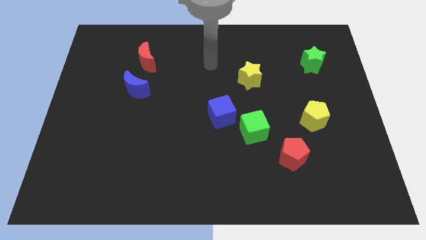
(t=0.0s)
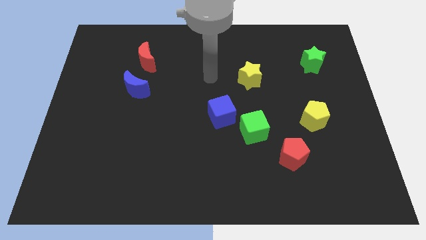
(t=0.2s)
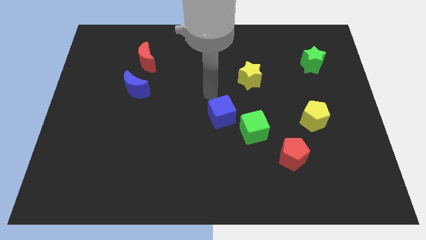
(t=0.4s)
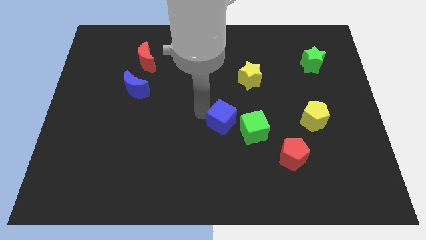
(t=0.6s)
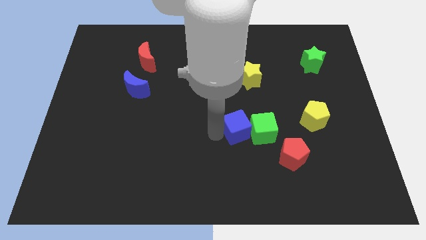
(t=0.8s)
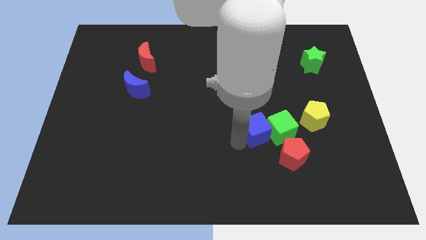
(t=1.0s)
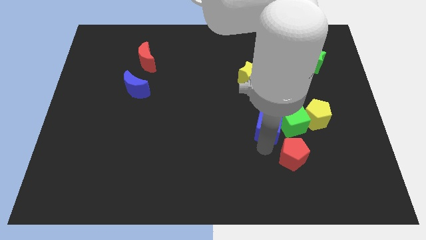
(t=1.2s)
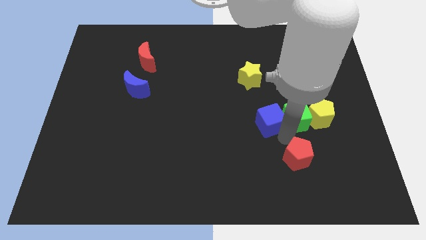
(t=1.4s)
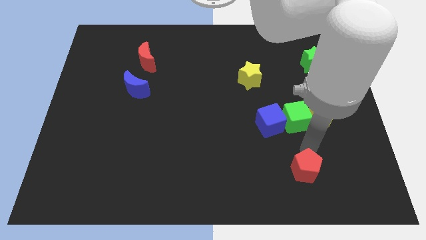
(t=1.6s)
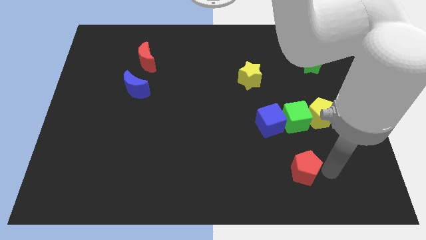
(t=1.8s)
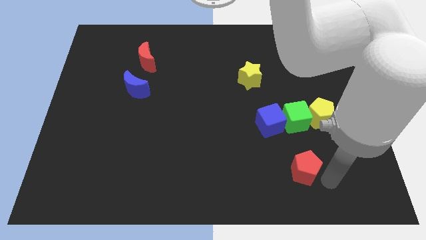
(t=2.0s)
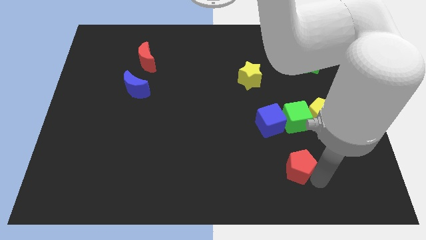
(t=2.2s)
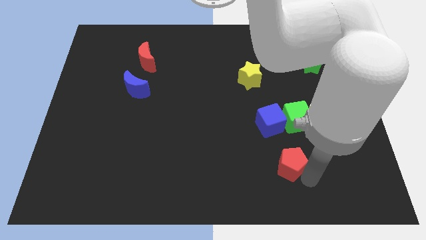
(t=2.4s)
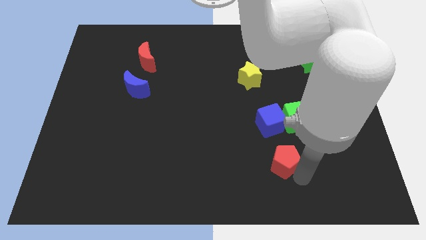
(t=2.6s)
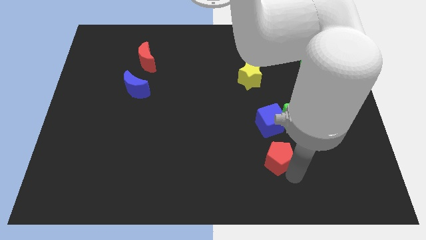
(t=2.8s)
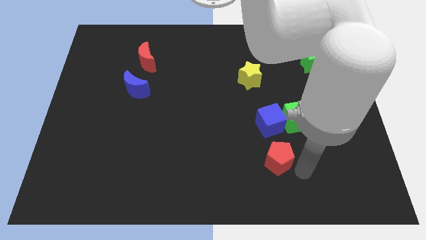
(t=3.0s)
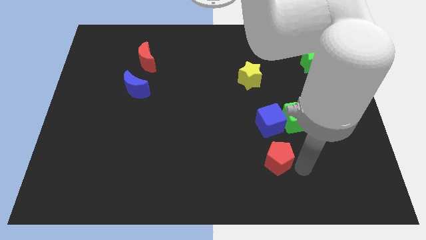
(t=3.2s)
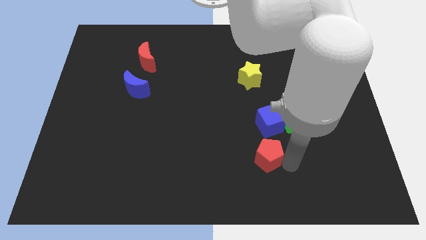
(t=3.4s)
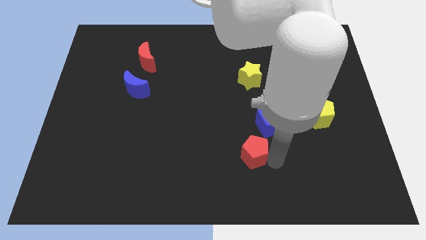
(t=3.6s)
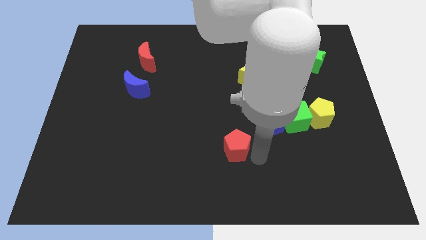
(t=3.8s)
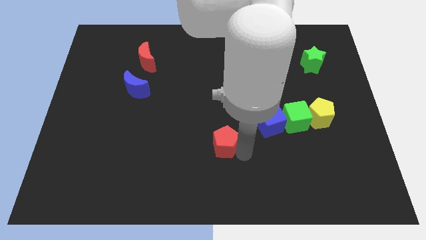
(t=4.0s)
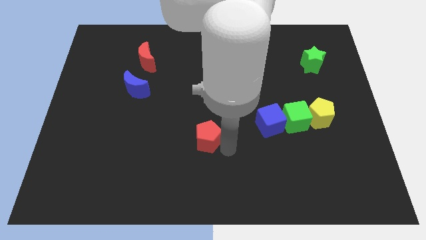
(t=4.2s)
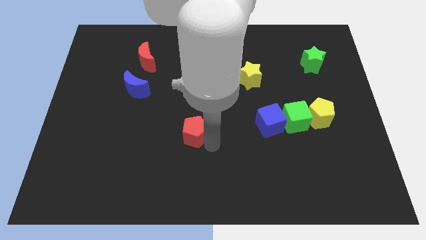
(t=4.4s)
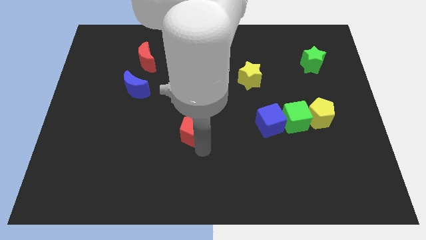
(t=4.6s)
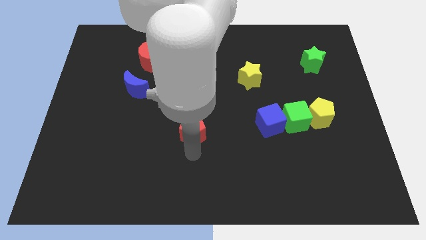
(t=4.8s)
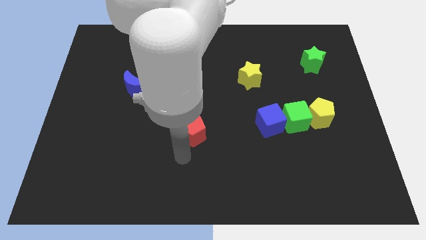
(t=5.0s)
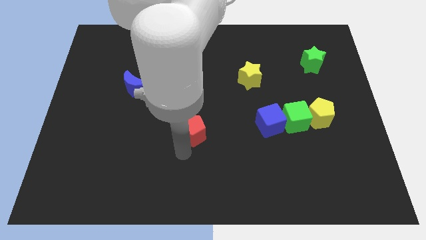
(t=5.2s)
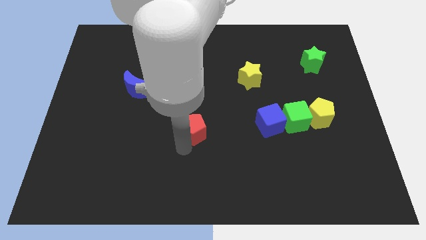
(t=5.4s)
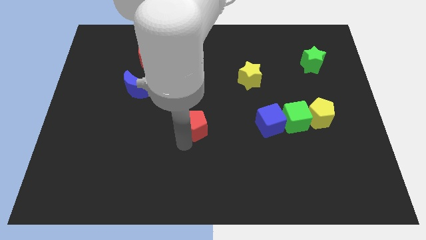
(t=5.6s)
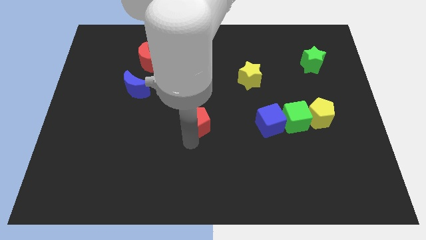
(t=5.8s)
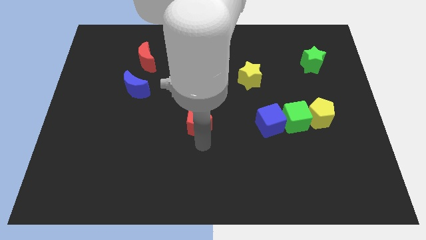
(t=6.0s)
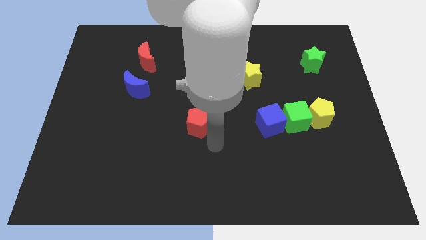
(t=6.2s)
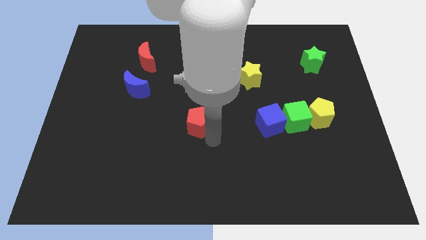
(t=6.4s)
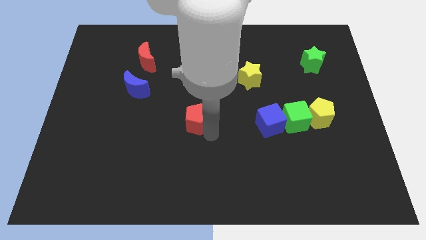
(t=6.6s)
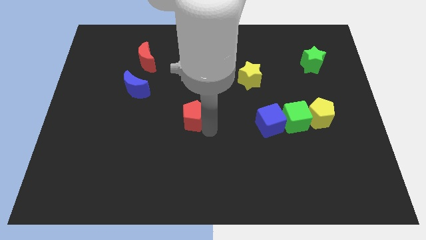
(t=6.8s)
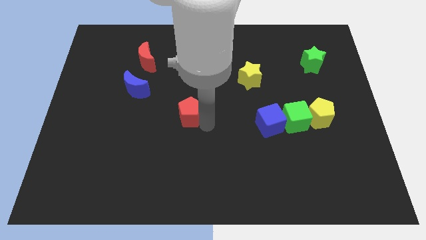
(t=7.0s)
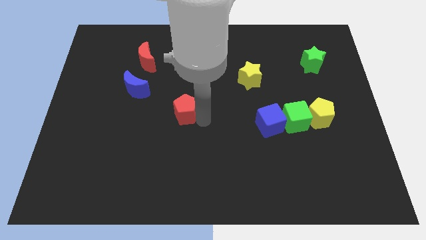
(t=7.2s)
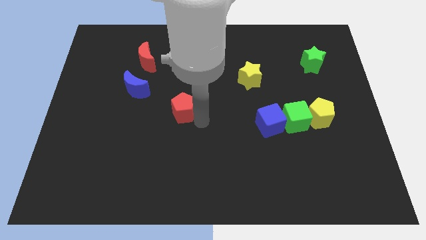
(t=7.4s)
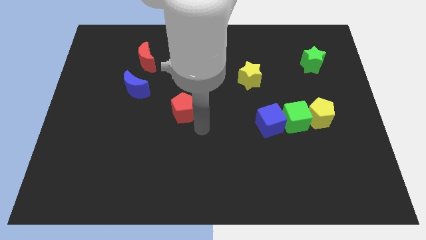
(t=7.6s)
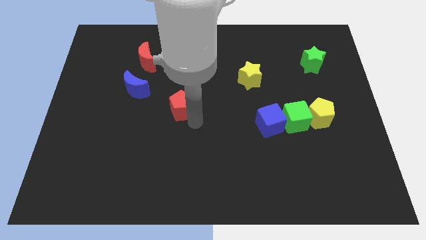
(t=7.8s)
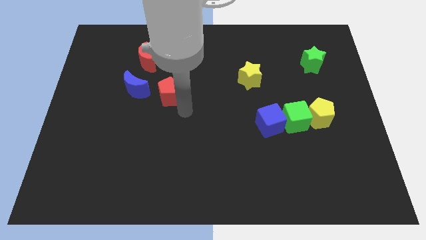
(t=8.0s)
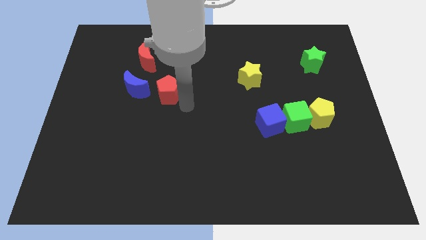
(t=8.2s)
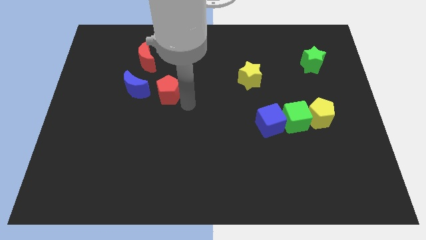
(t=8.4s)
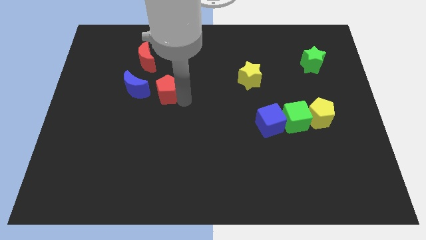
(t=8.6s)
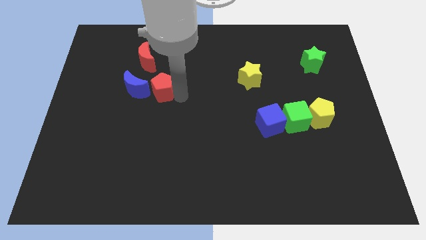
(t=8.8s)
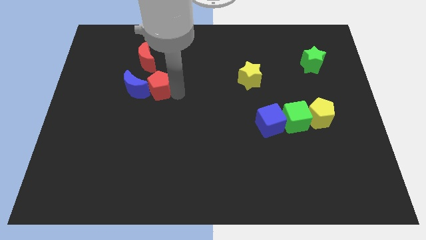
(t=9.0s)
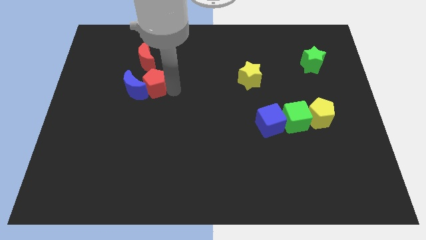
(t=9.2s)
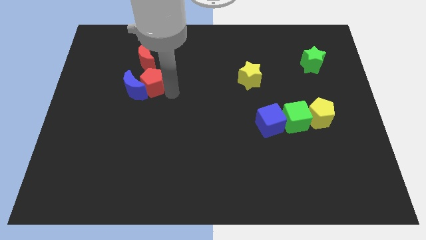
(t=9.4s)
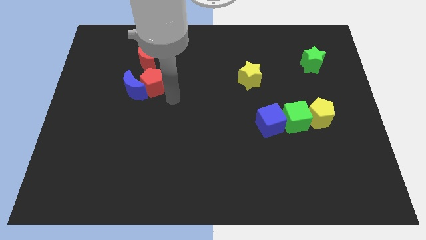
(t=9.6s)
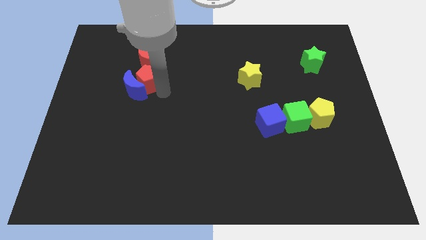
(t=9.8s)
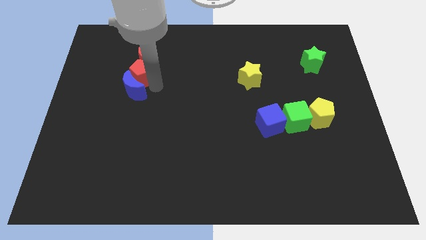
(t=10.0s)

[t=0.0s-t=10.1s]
put the red pentagon to the top left side of the blue moon

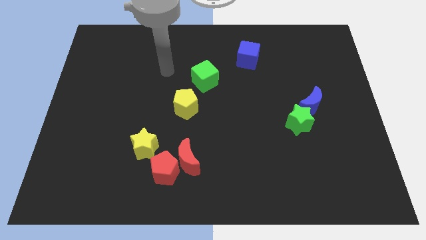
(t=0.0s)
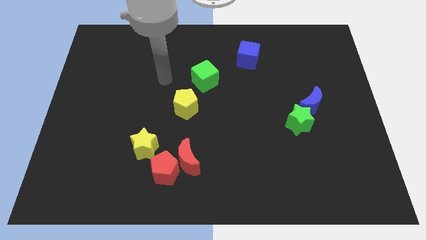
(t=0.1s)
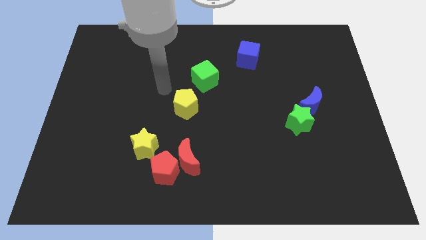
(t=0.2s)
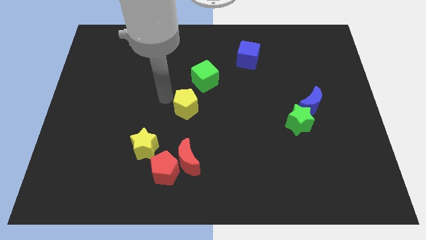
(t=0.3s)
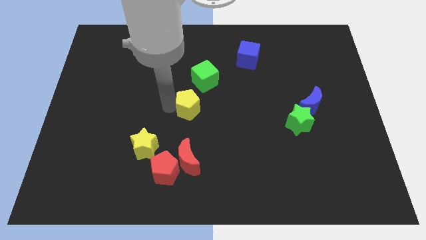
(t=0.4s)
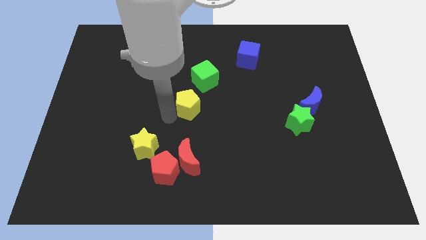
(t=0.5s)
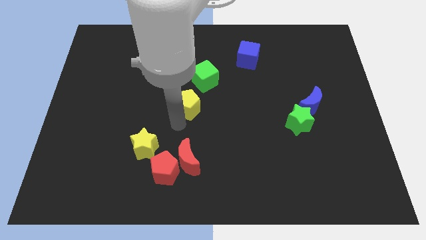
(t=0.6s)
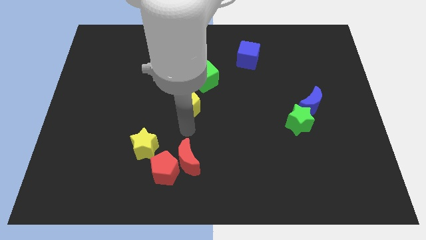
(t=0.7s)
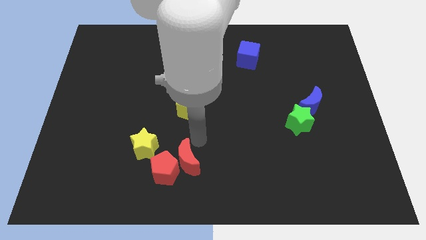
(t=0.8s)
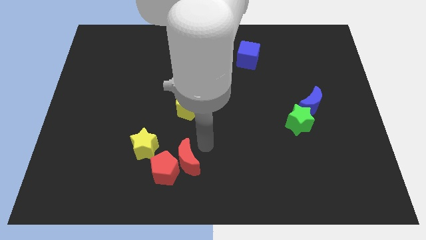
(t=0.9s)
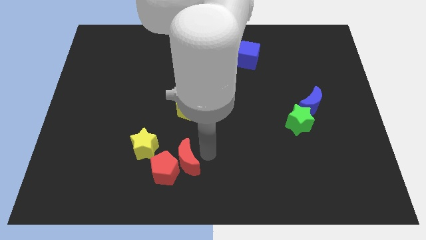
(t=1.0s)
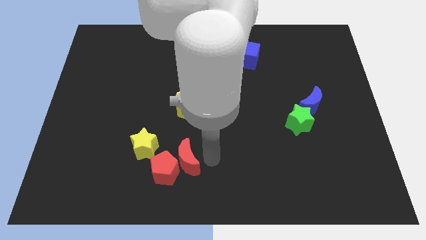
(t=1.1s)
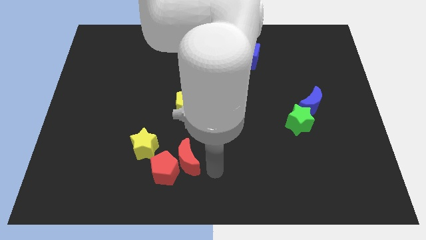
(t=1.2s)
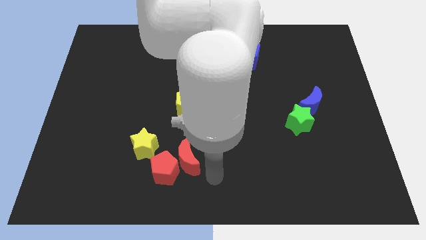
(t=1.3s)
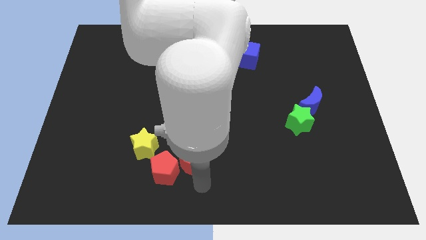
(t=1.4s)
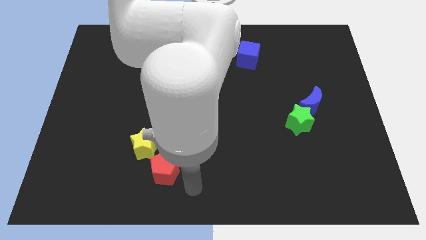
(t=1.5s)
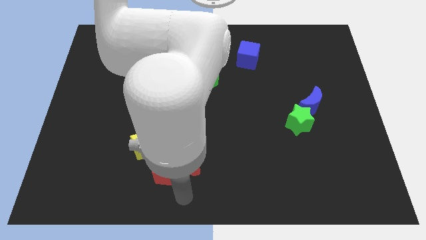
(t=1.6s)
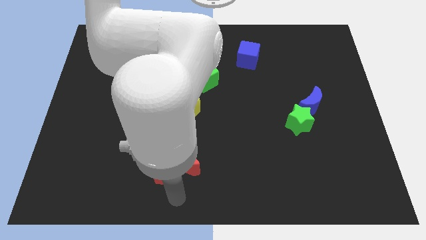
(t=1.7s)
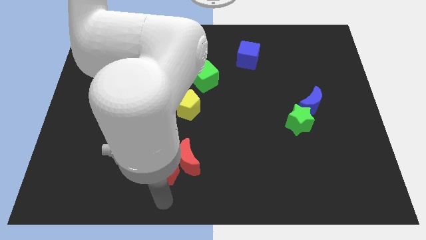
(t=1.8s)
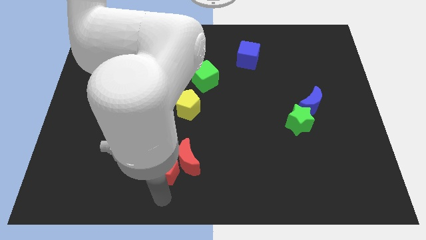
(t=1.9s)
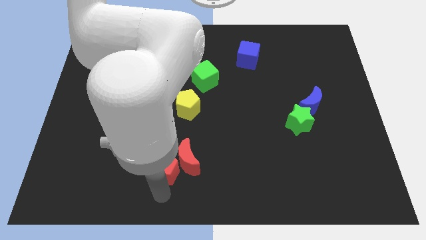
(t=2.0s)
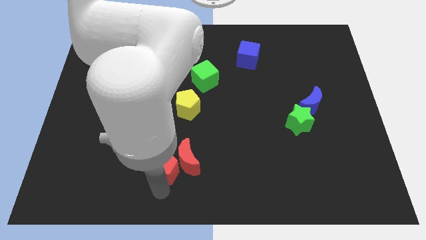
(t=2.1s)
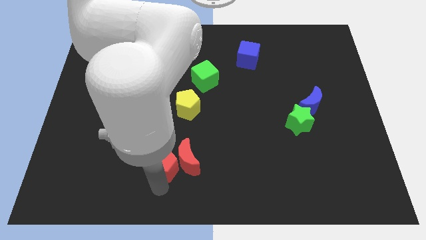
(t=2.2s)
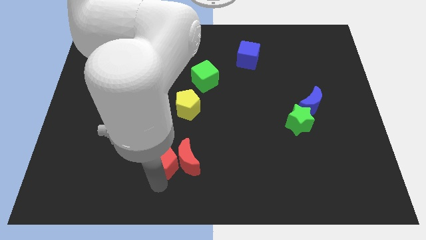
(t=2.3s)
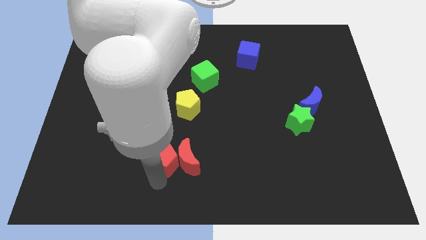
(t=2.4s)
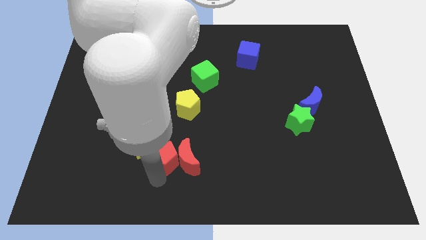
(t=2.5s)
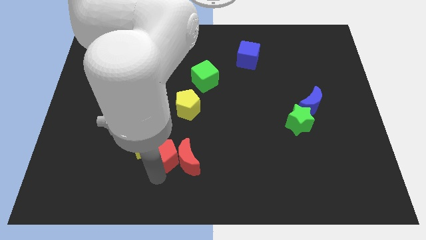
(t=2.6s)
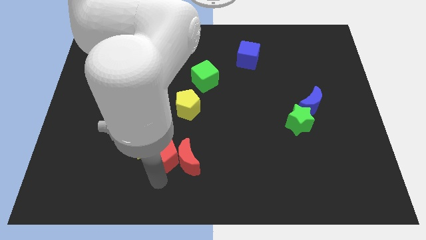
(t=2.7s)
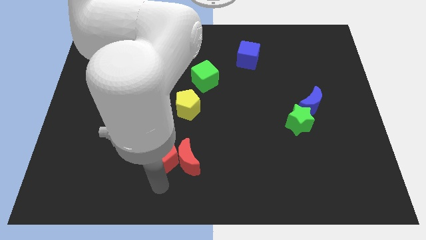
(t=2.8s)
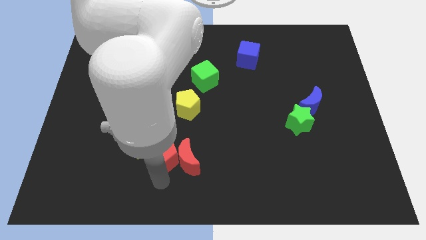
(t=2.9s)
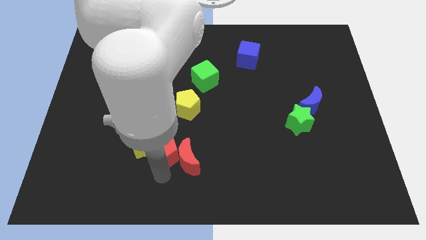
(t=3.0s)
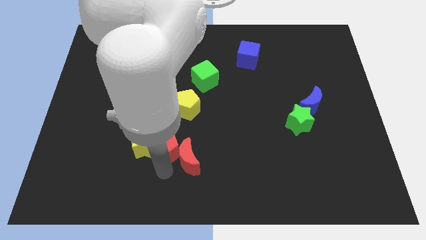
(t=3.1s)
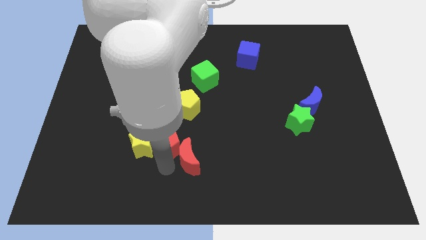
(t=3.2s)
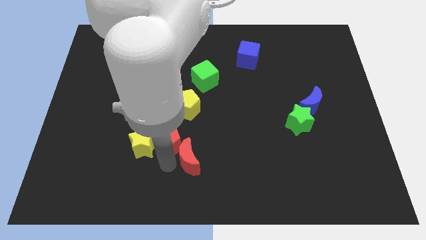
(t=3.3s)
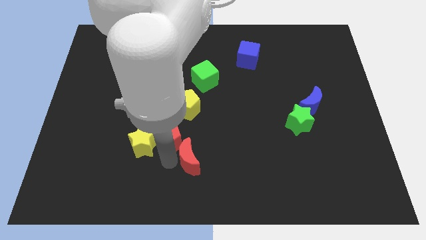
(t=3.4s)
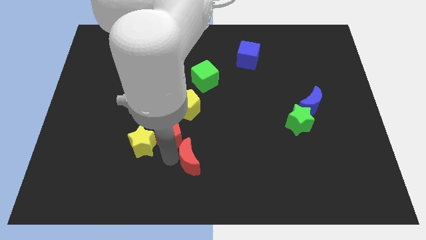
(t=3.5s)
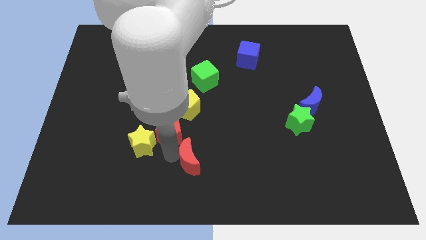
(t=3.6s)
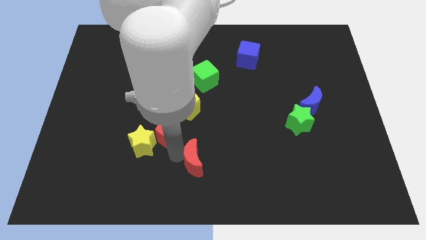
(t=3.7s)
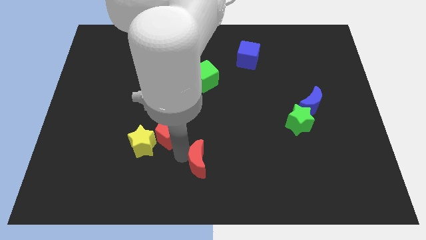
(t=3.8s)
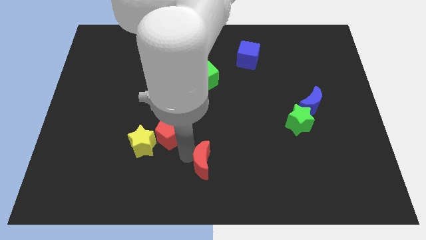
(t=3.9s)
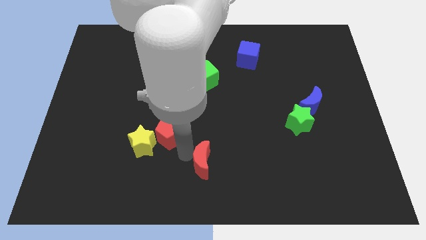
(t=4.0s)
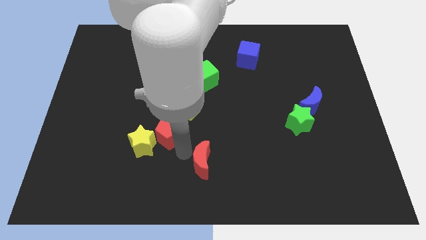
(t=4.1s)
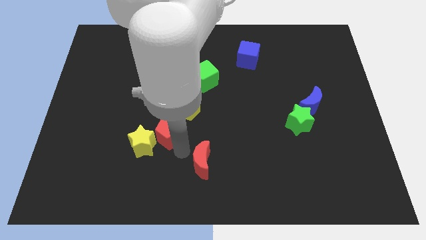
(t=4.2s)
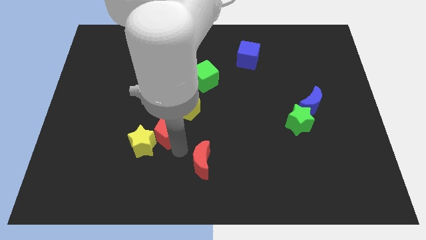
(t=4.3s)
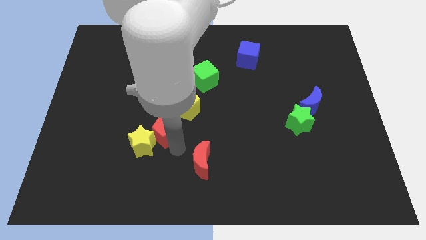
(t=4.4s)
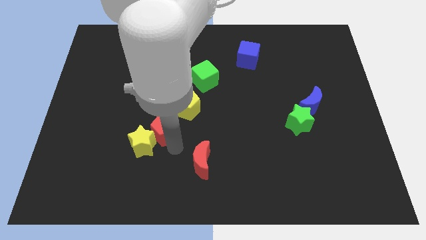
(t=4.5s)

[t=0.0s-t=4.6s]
put the red pentagon to the top of the yellow star
